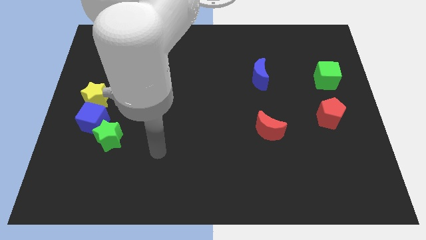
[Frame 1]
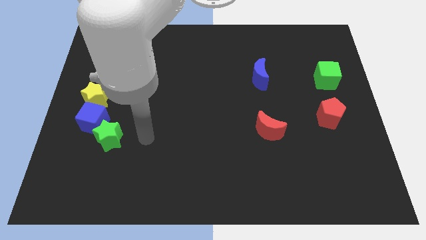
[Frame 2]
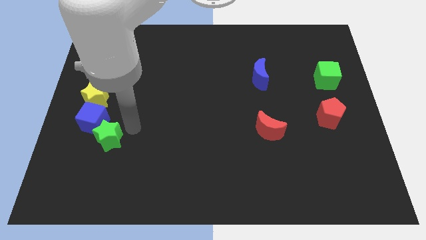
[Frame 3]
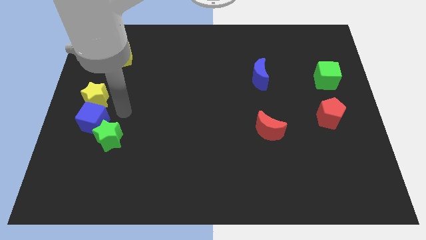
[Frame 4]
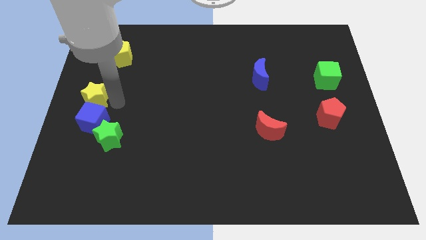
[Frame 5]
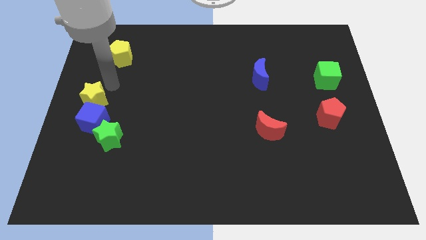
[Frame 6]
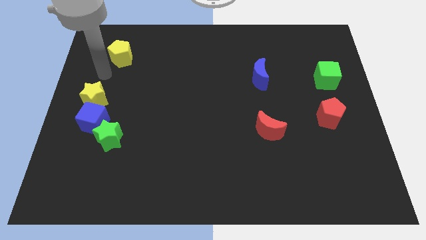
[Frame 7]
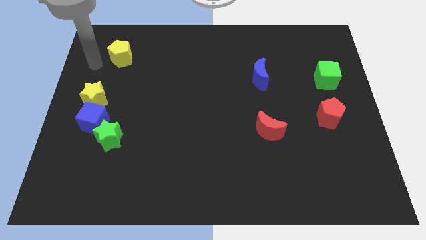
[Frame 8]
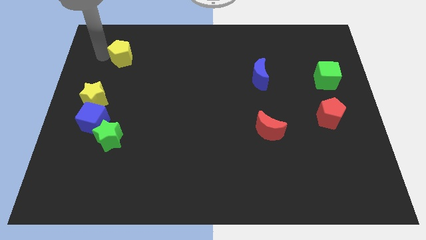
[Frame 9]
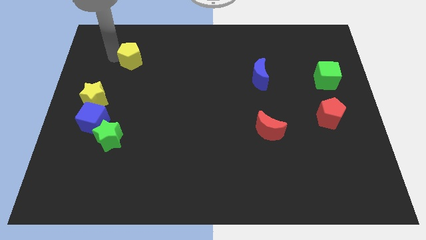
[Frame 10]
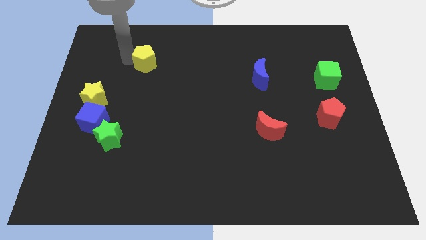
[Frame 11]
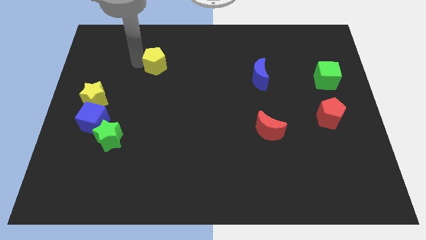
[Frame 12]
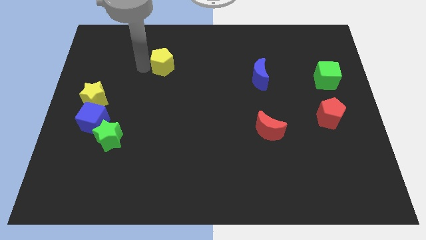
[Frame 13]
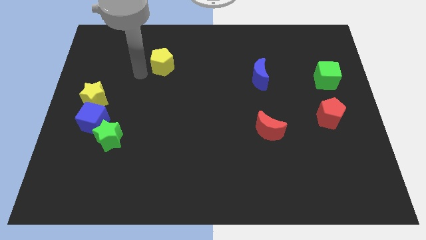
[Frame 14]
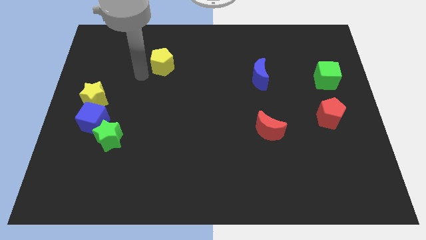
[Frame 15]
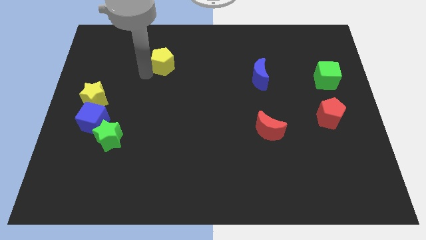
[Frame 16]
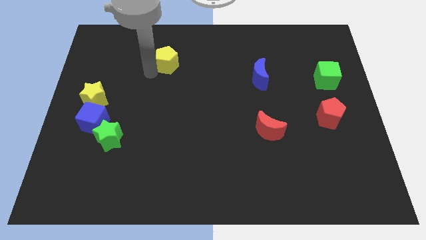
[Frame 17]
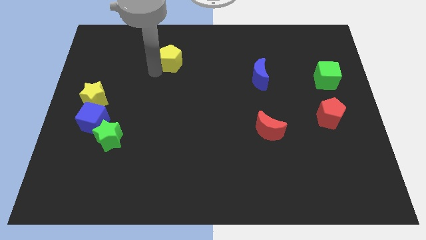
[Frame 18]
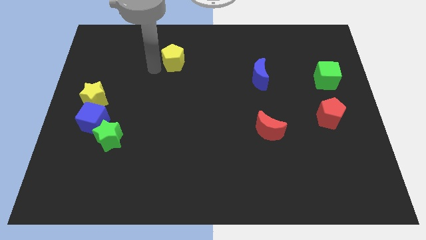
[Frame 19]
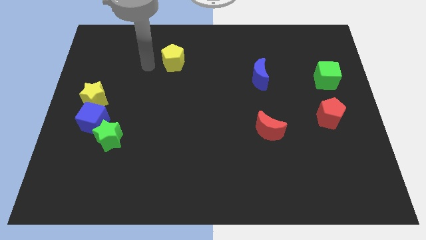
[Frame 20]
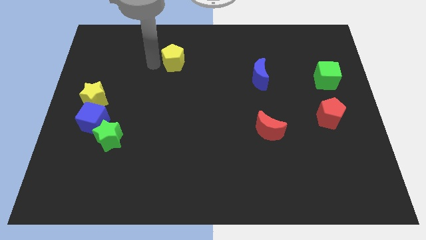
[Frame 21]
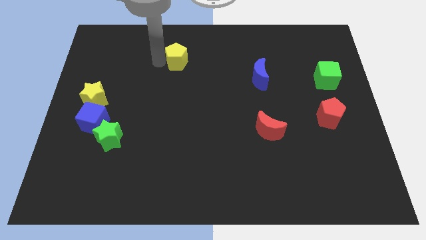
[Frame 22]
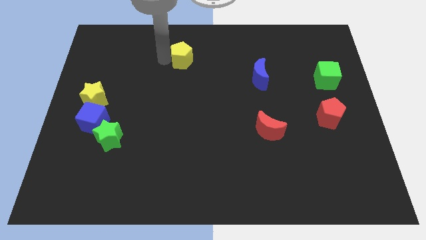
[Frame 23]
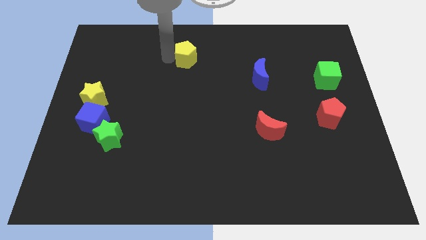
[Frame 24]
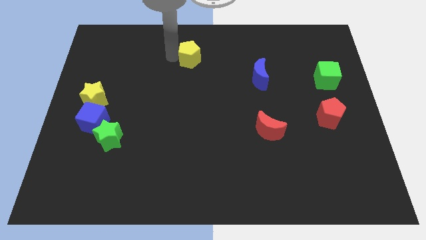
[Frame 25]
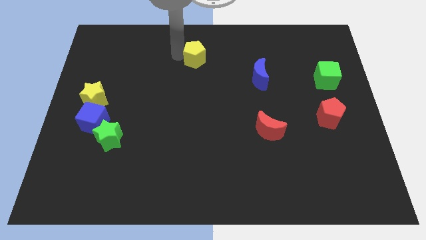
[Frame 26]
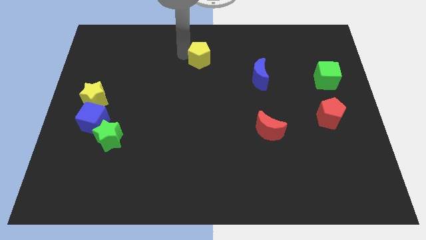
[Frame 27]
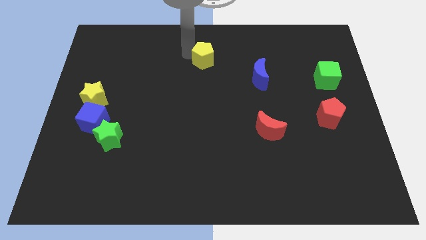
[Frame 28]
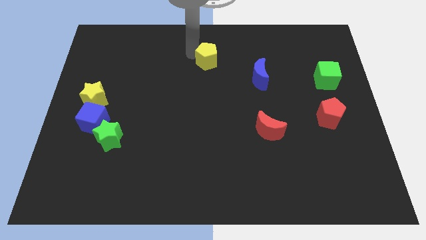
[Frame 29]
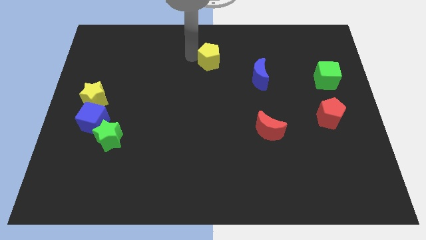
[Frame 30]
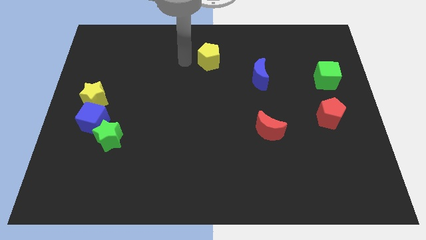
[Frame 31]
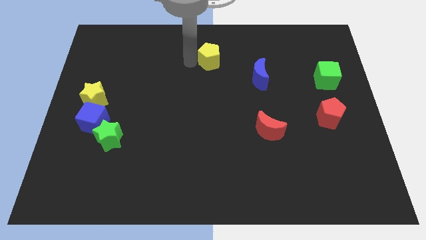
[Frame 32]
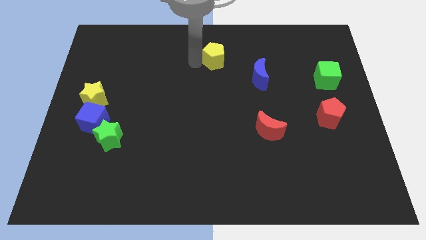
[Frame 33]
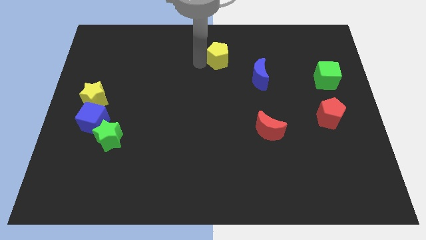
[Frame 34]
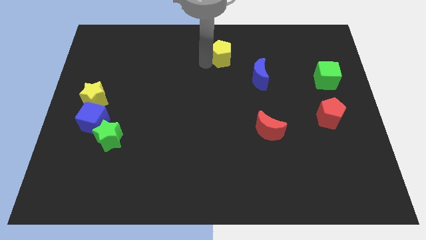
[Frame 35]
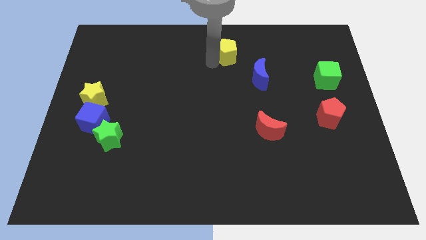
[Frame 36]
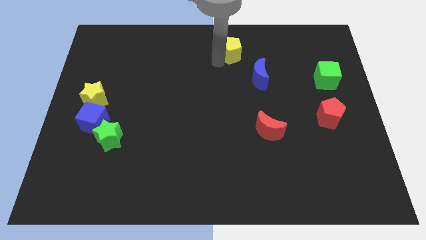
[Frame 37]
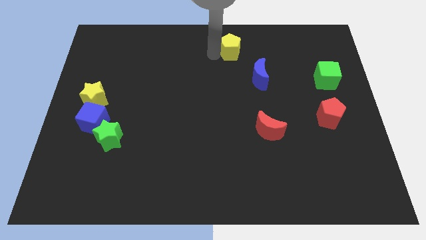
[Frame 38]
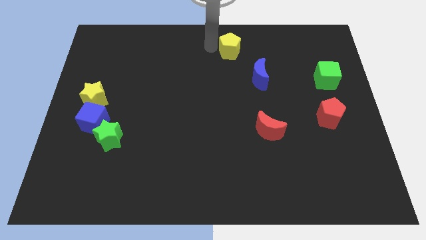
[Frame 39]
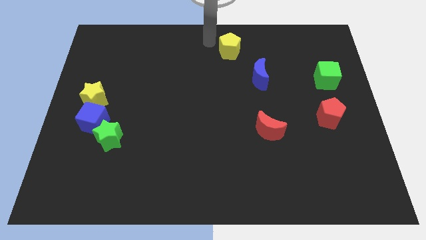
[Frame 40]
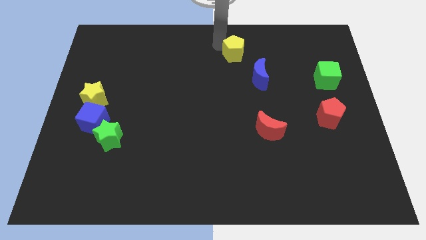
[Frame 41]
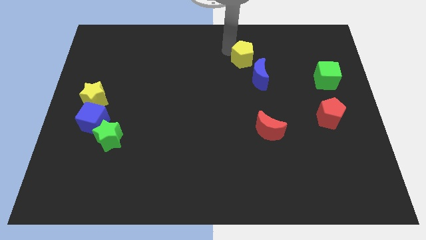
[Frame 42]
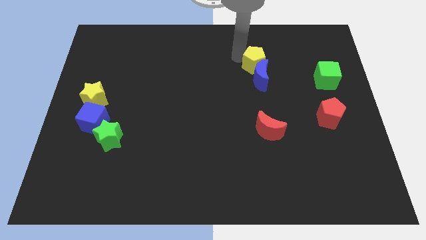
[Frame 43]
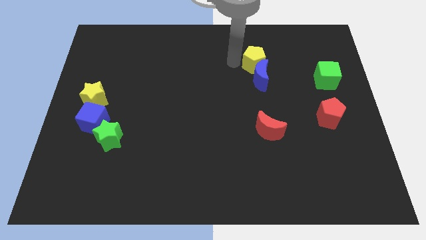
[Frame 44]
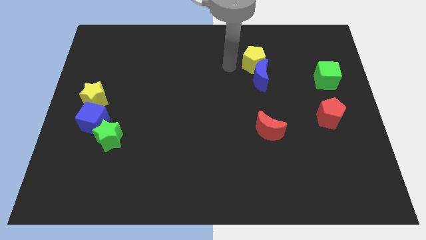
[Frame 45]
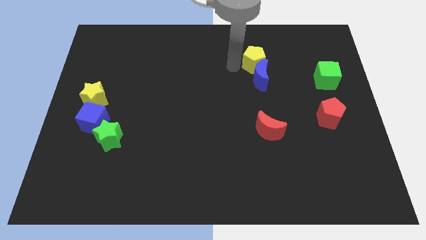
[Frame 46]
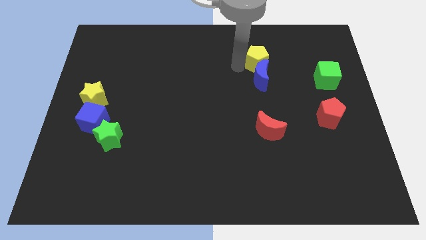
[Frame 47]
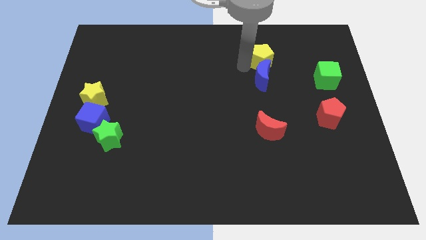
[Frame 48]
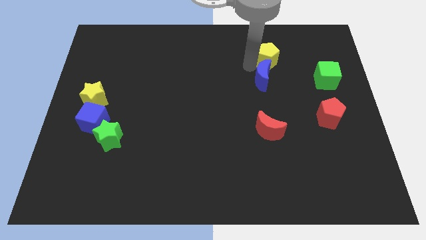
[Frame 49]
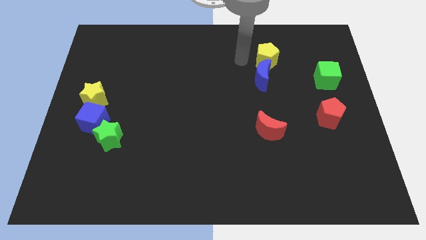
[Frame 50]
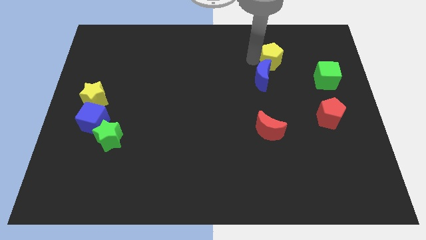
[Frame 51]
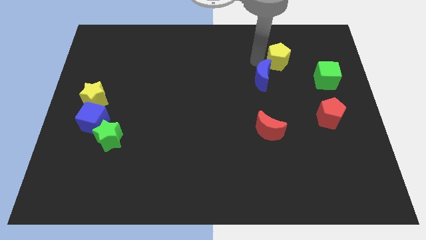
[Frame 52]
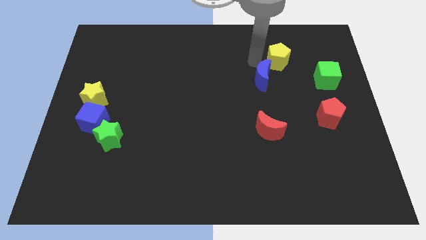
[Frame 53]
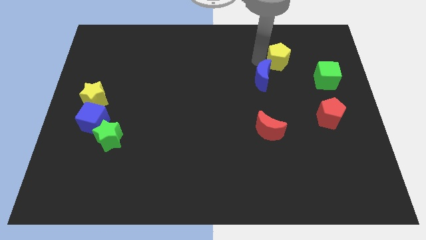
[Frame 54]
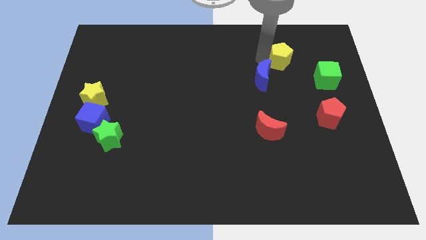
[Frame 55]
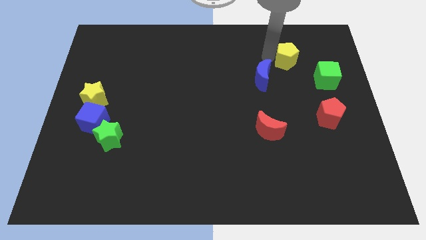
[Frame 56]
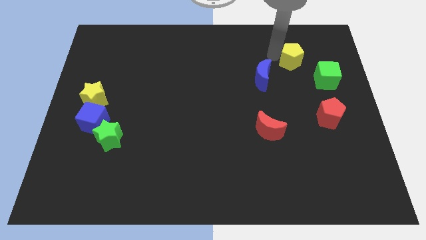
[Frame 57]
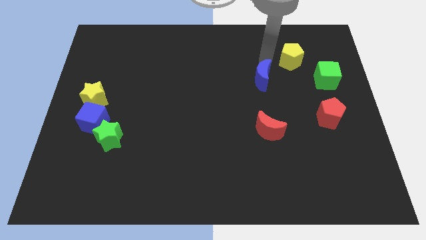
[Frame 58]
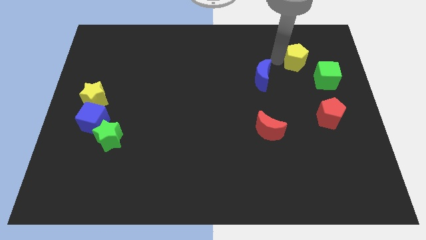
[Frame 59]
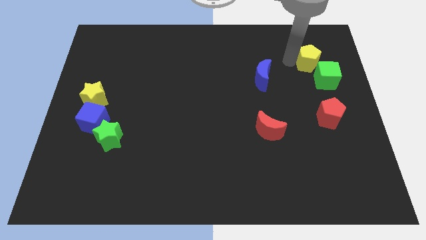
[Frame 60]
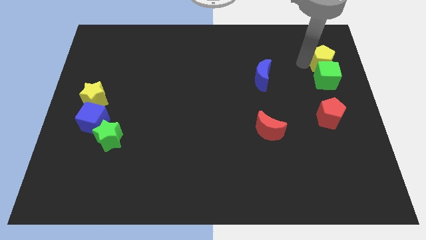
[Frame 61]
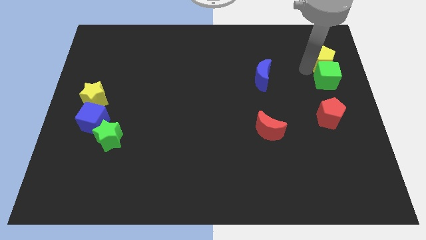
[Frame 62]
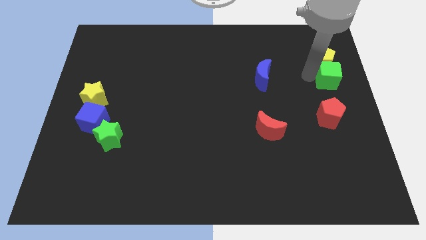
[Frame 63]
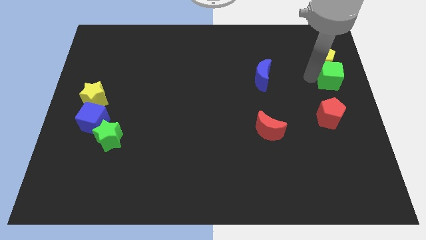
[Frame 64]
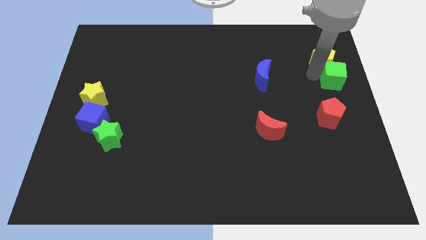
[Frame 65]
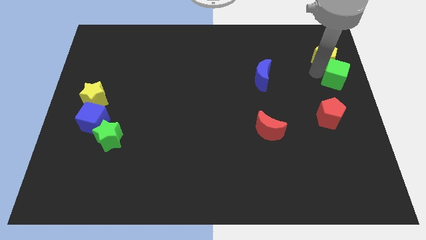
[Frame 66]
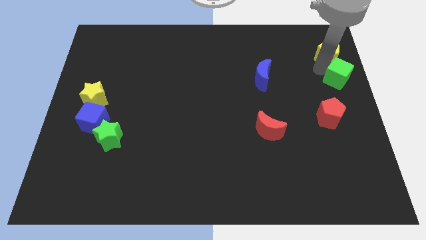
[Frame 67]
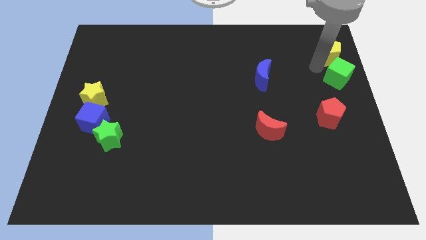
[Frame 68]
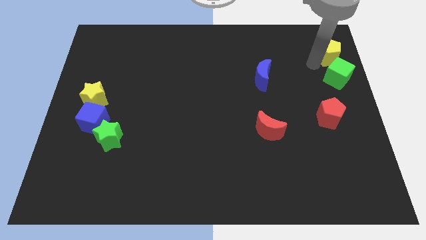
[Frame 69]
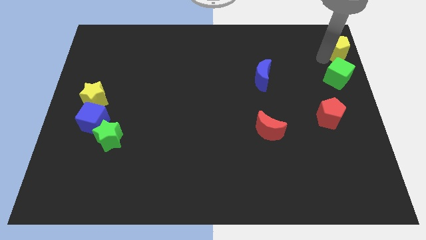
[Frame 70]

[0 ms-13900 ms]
put the yellow pentagon to the top right corner
